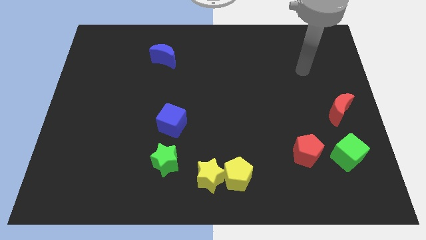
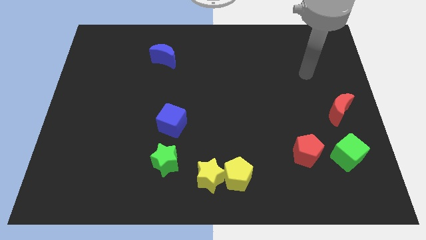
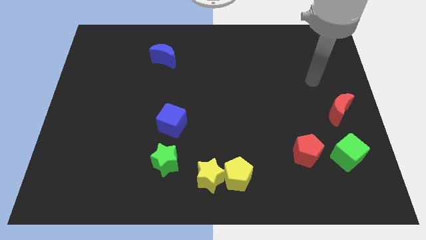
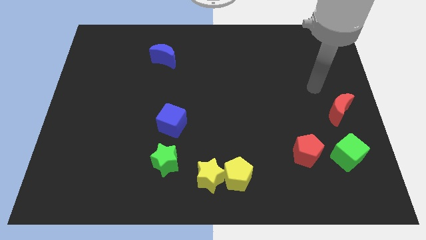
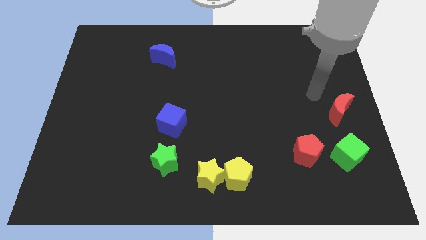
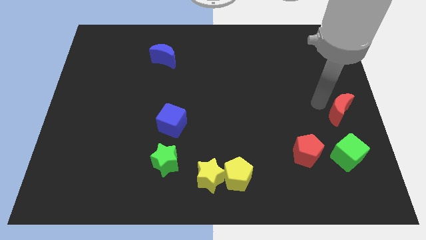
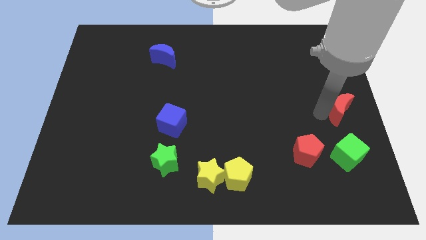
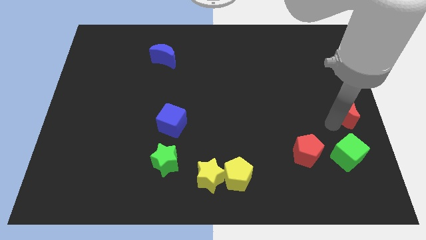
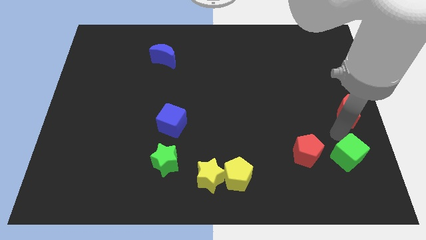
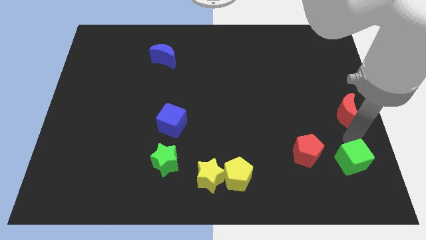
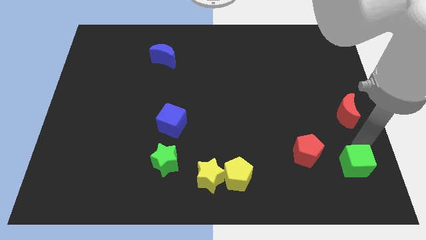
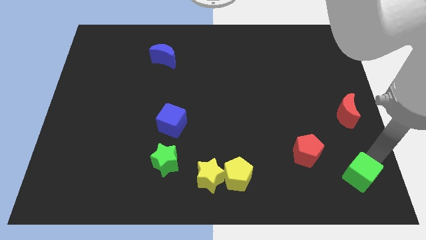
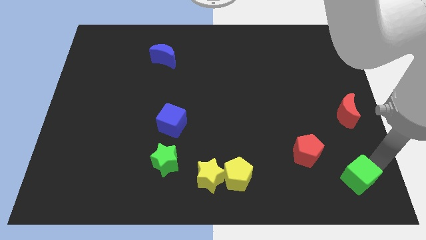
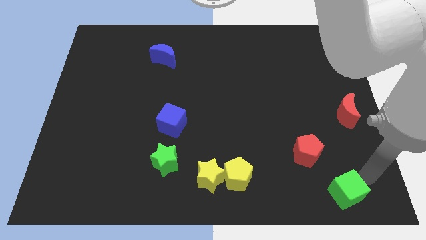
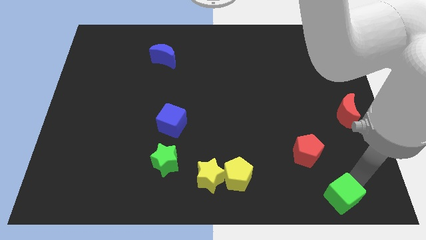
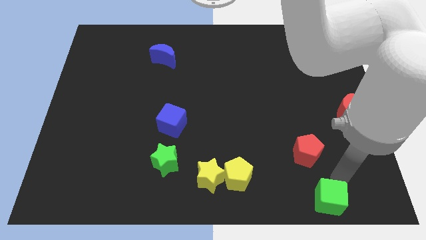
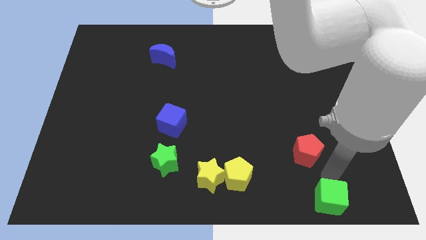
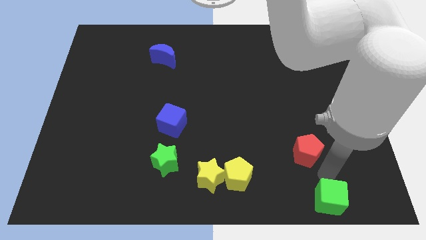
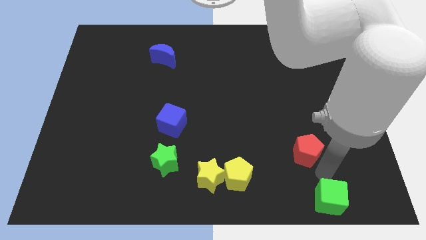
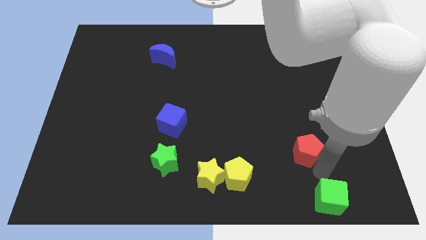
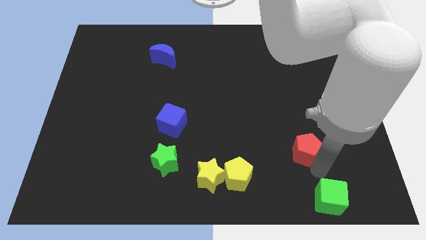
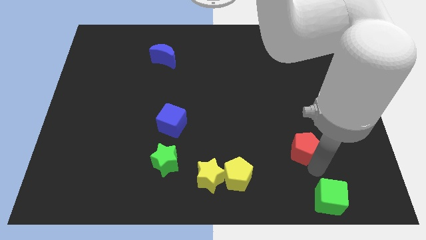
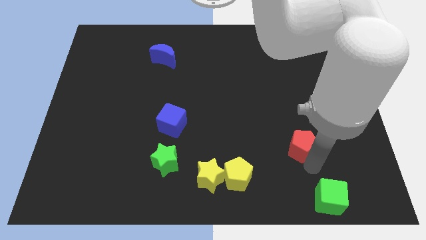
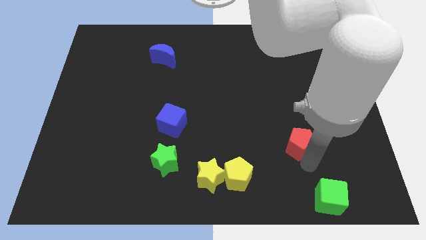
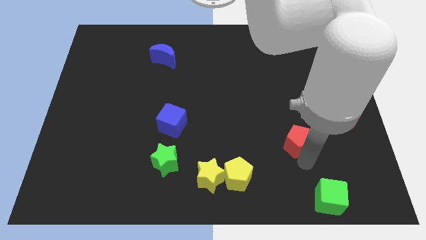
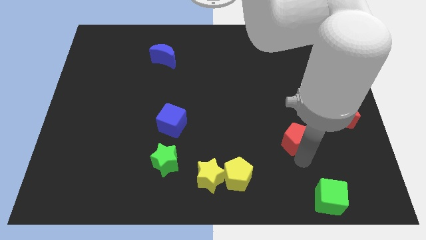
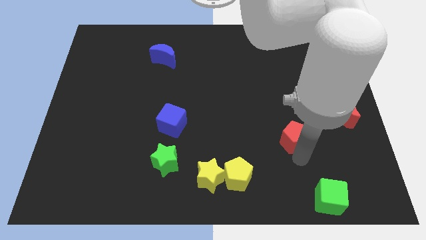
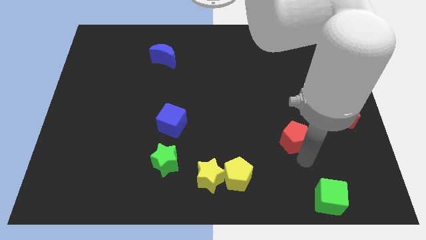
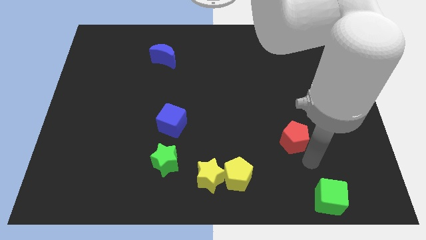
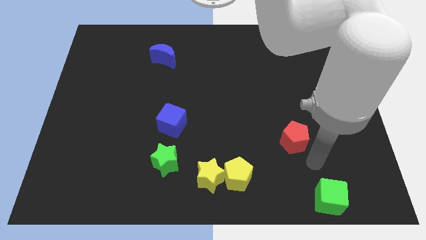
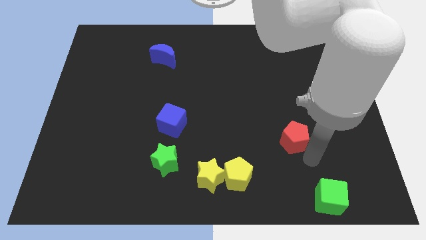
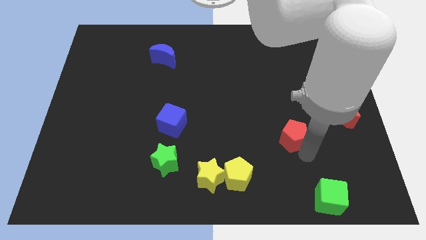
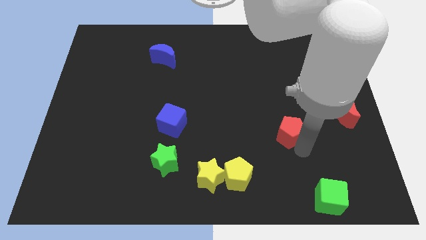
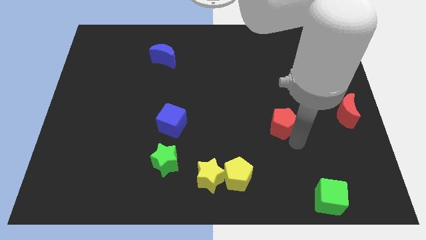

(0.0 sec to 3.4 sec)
slide the red pentagon upwards and to the left somewhat

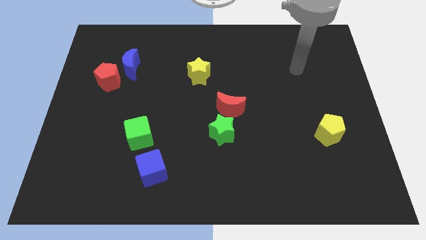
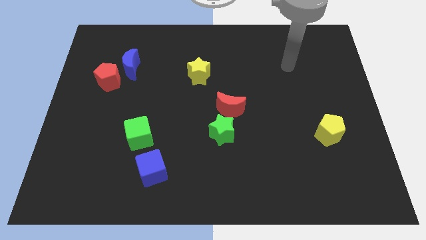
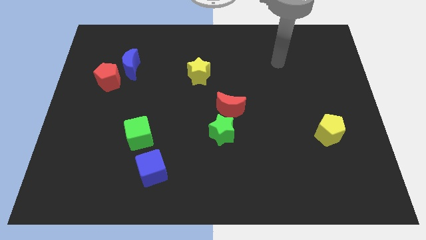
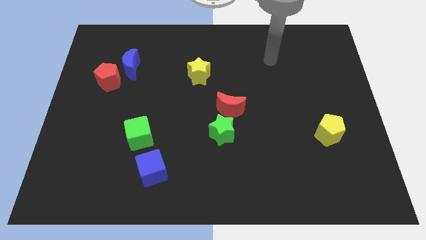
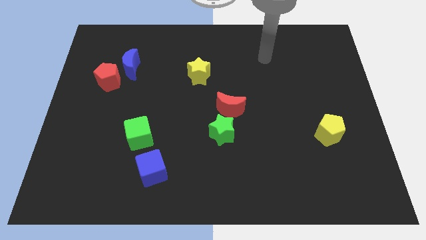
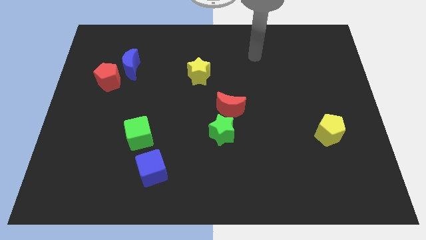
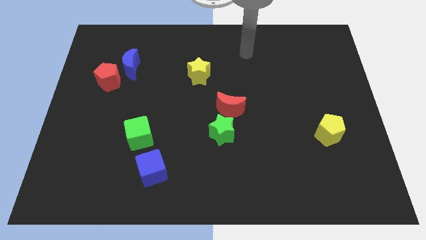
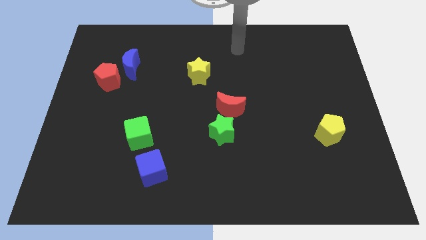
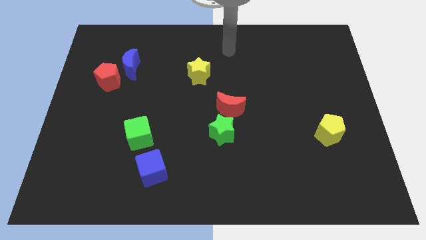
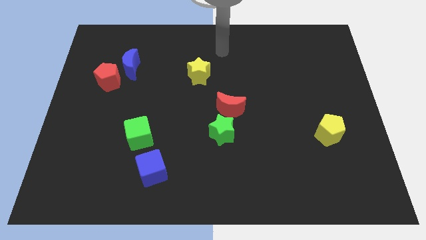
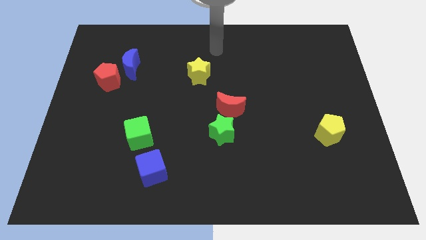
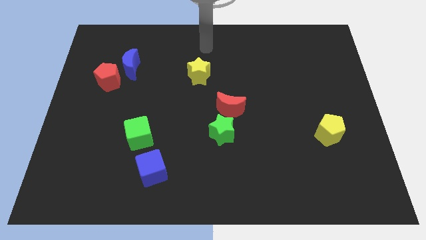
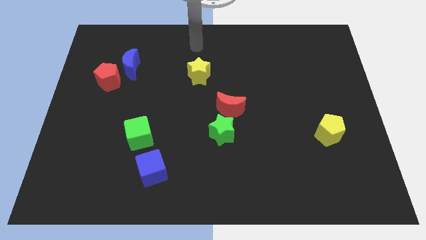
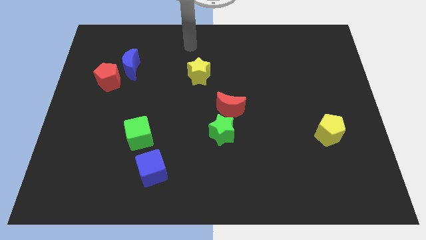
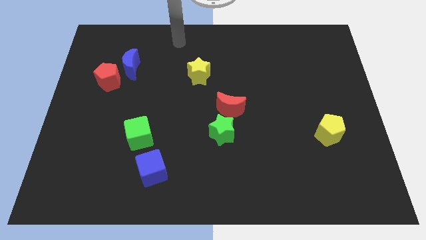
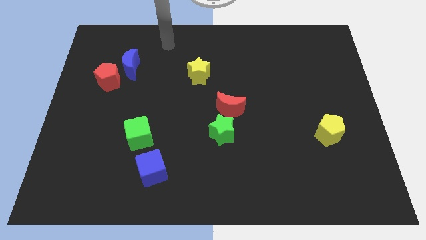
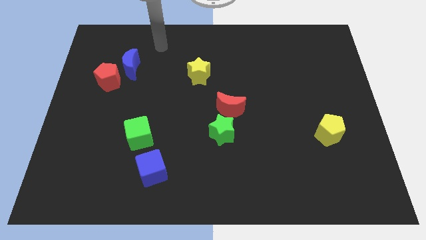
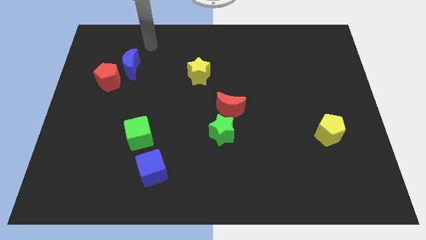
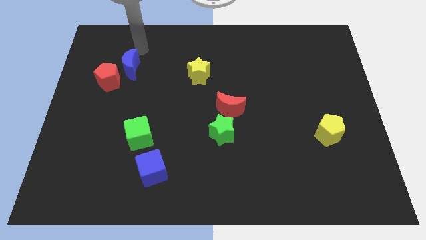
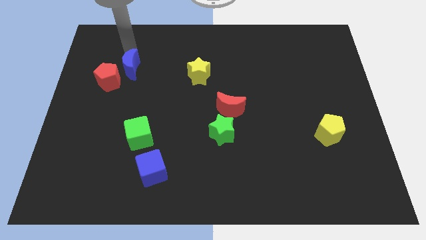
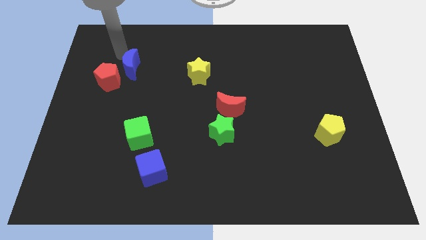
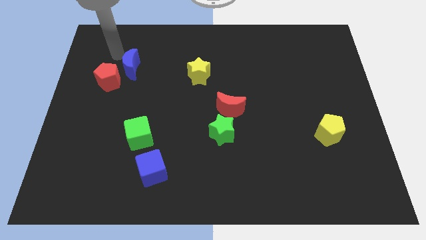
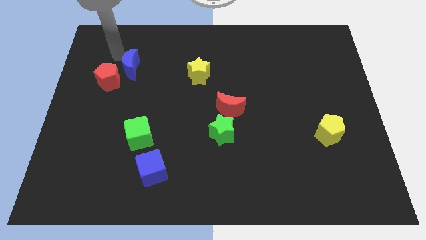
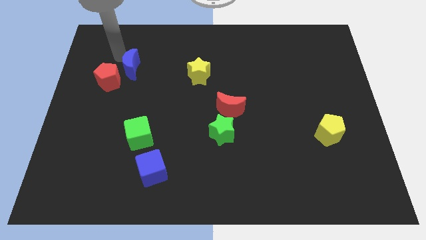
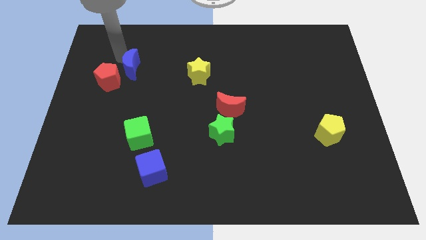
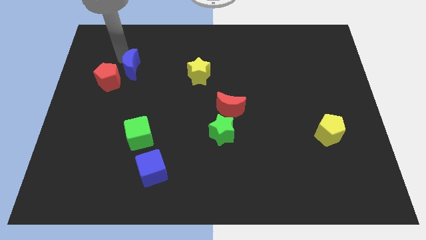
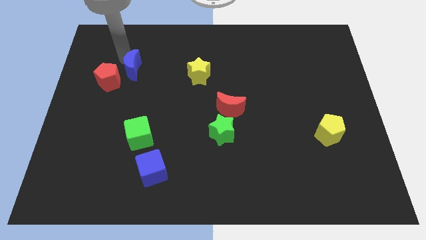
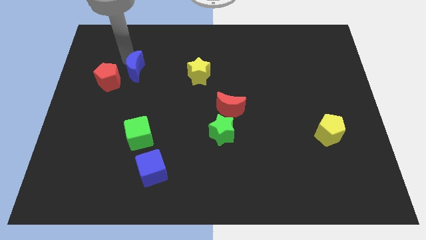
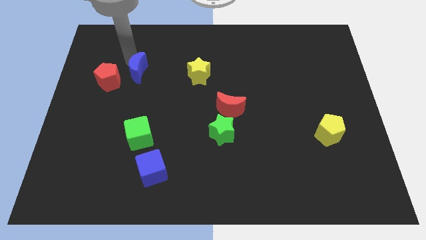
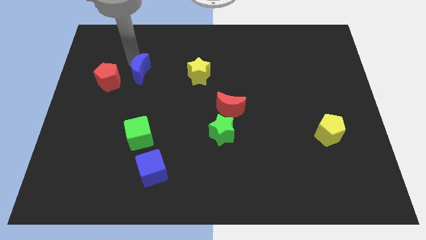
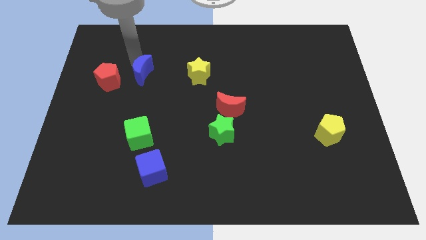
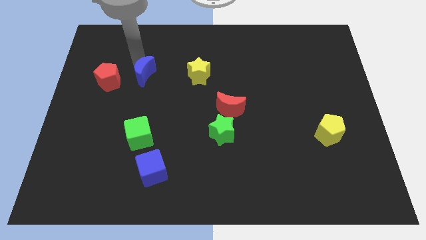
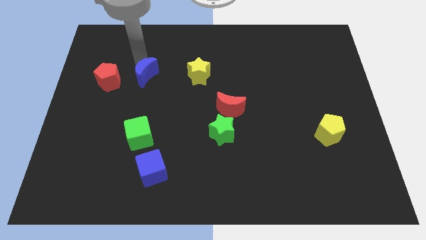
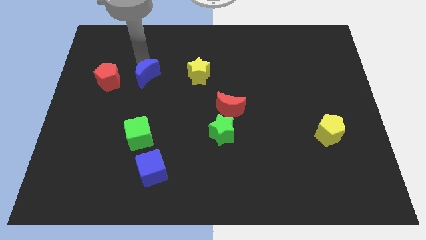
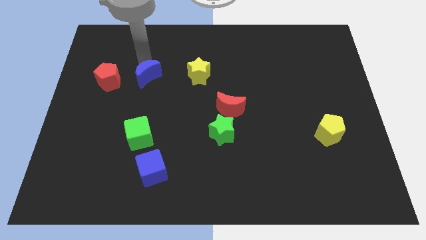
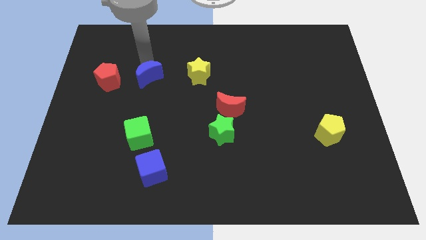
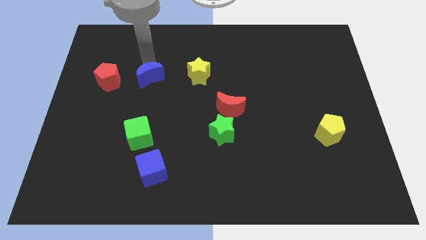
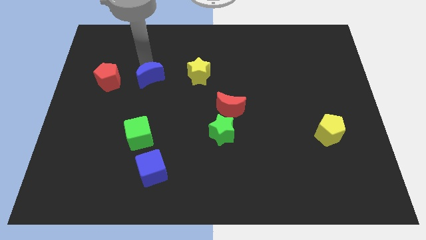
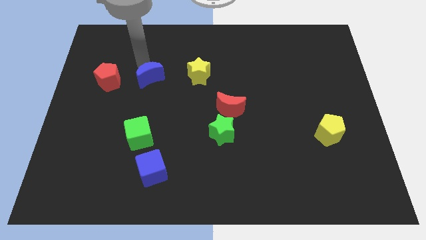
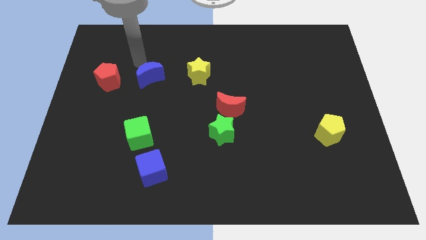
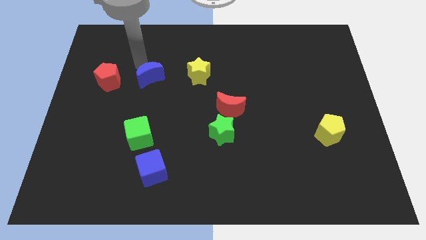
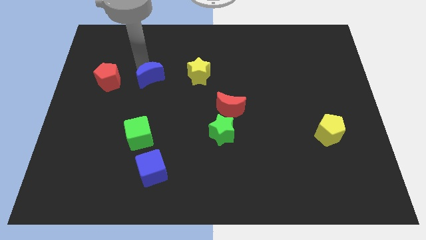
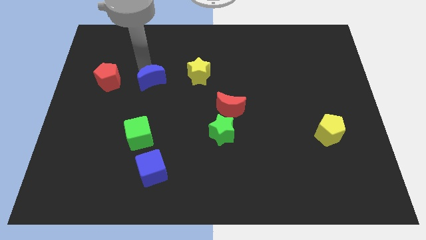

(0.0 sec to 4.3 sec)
slightly slide the blue moon downwards and right diagonally

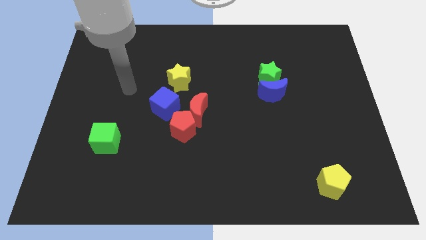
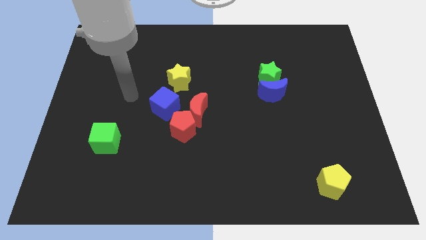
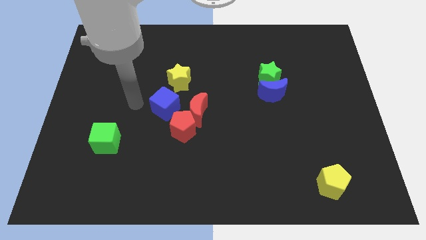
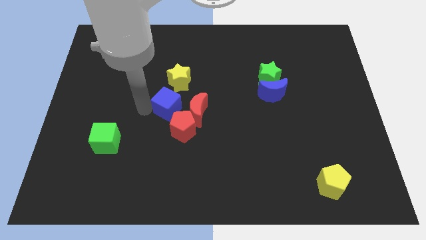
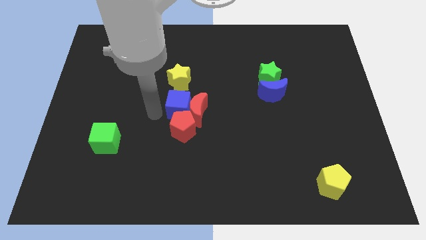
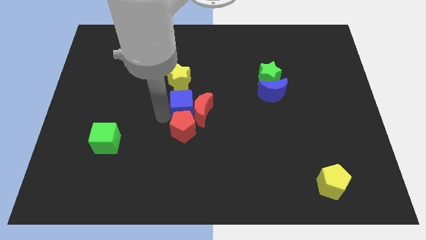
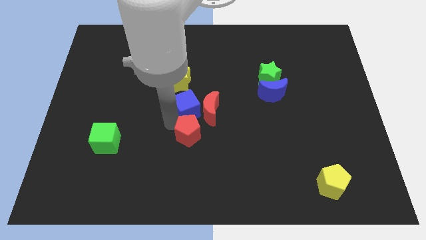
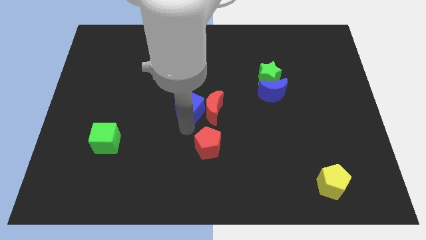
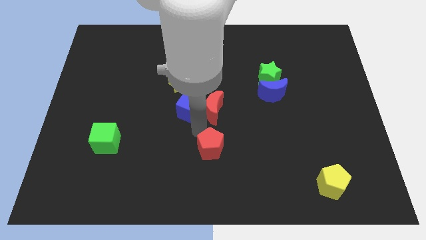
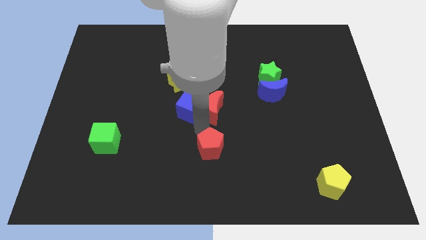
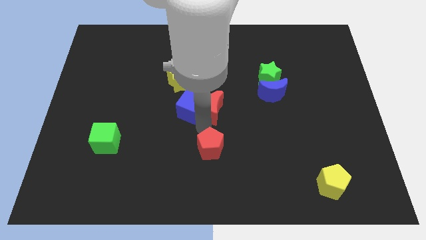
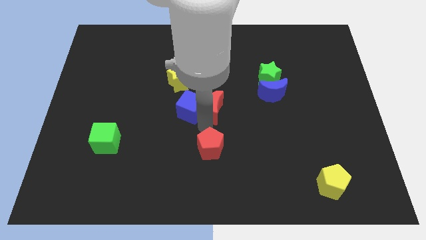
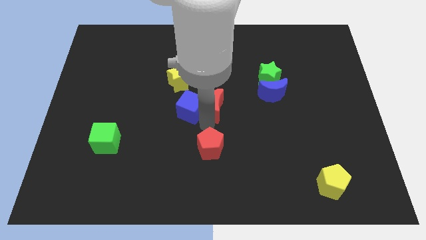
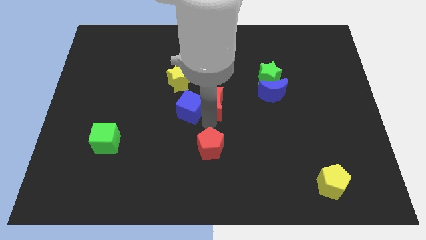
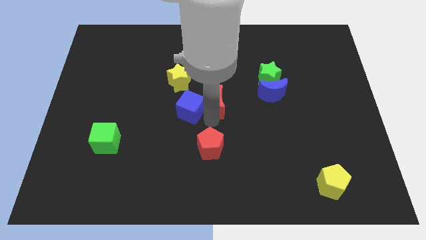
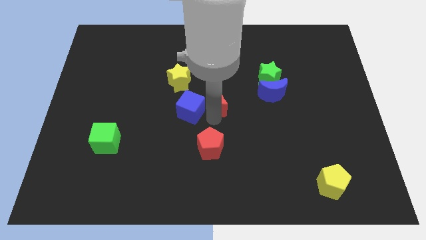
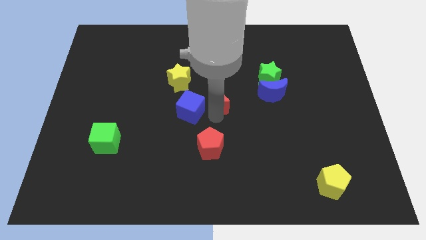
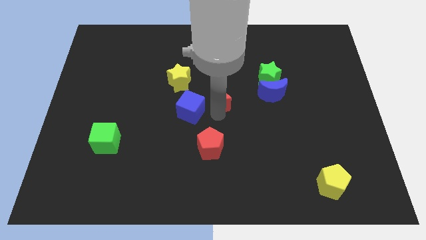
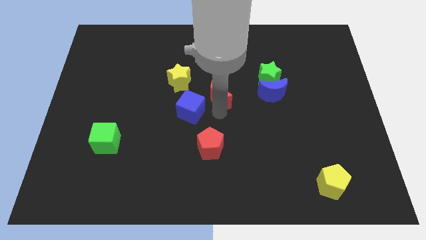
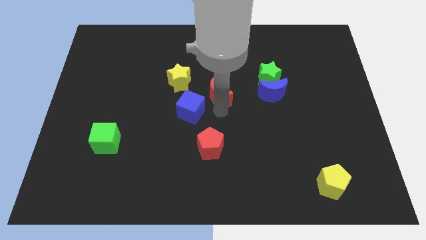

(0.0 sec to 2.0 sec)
move the red moon upwards and then right a little bit
